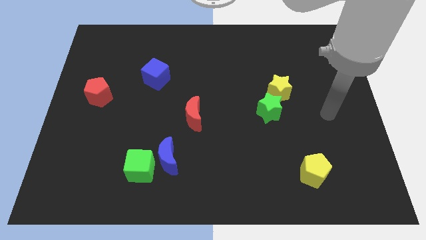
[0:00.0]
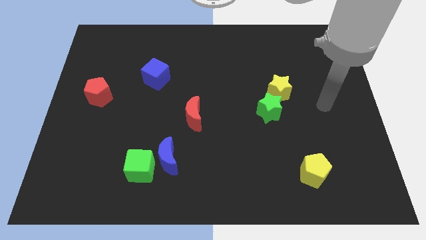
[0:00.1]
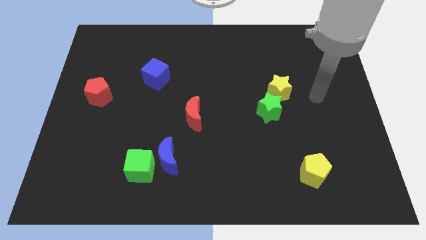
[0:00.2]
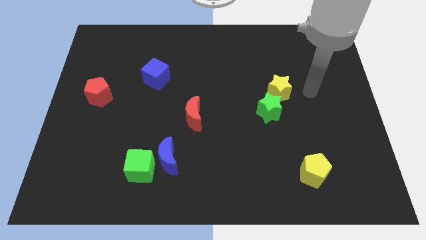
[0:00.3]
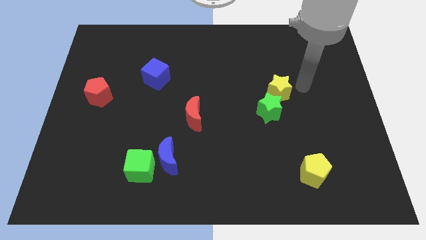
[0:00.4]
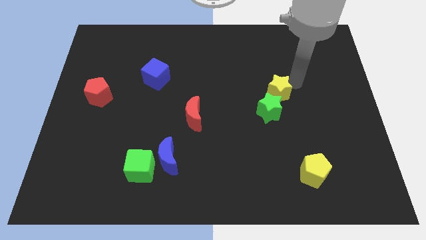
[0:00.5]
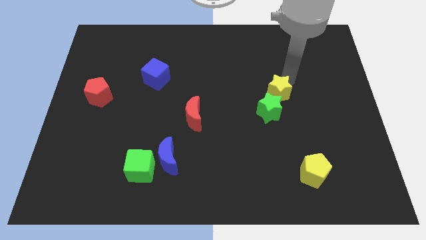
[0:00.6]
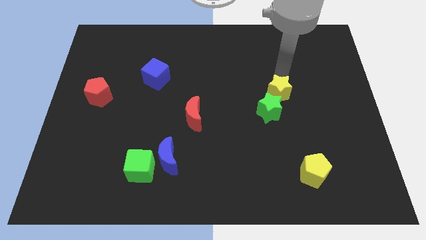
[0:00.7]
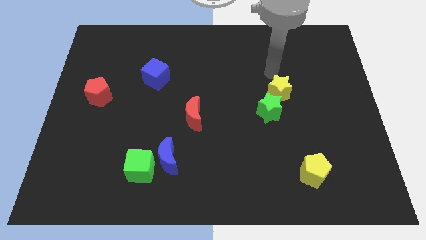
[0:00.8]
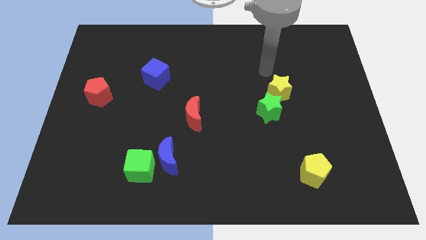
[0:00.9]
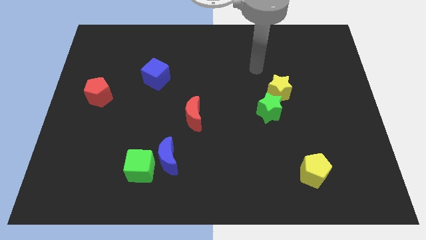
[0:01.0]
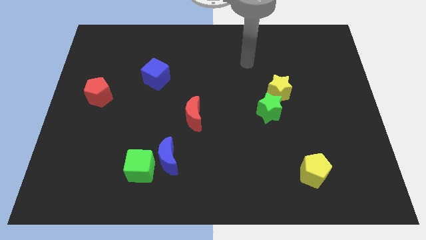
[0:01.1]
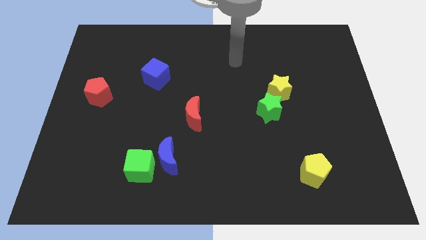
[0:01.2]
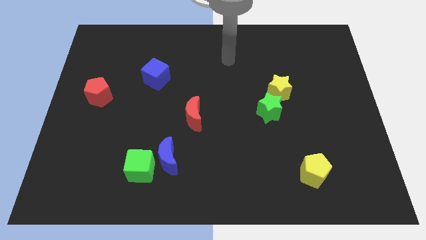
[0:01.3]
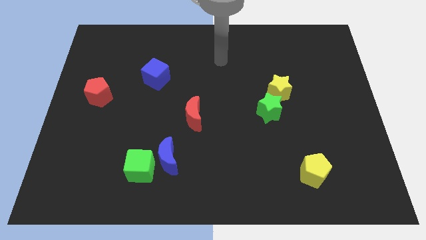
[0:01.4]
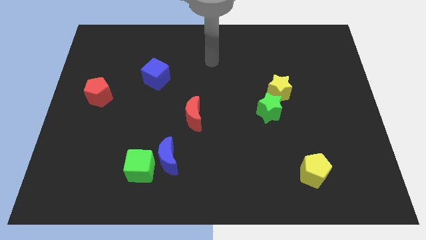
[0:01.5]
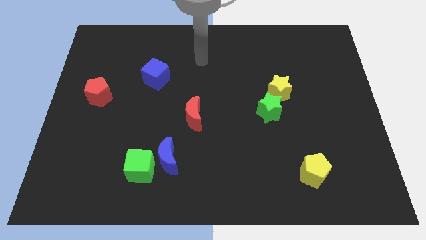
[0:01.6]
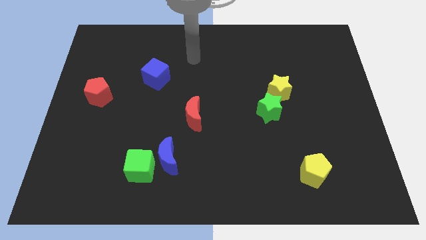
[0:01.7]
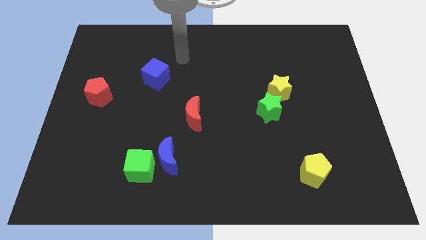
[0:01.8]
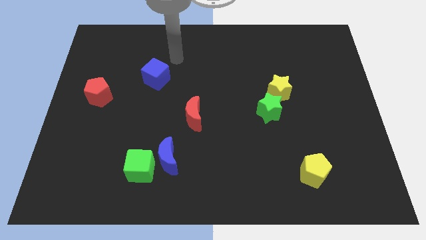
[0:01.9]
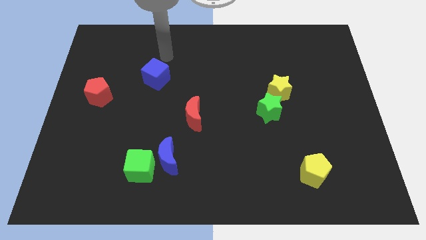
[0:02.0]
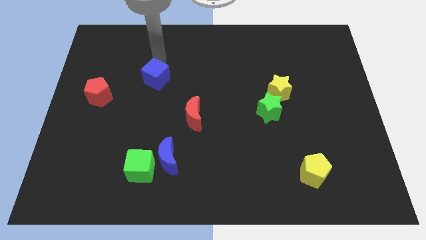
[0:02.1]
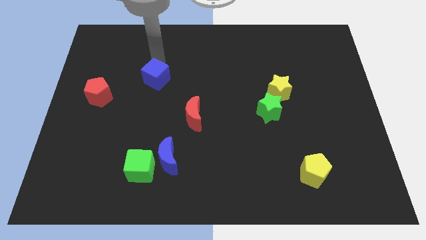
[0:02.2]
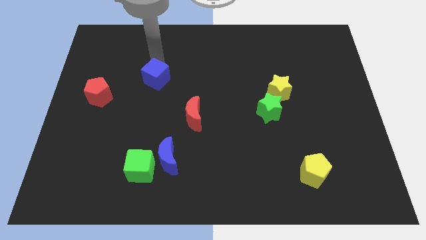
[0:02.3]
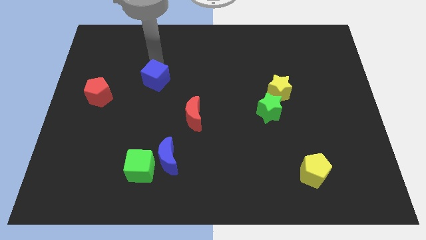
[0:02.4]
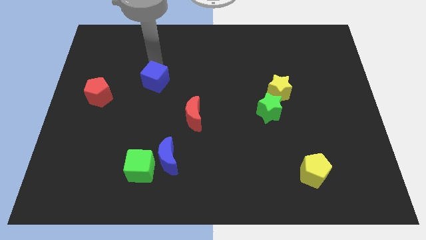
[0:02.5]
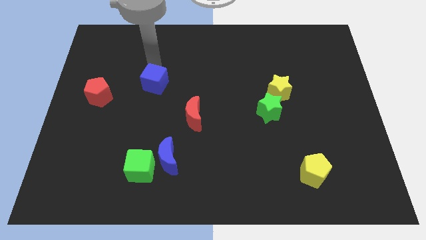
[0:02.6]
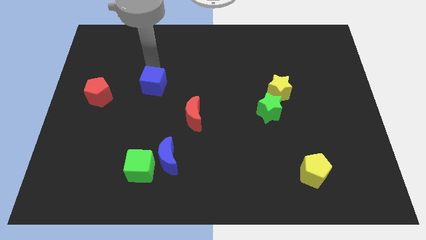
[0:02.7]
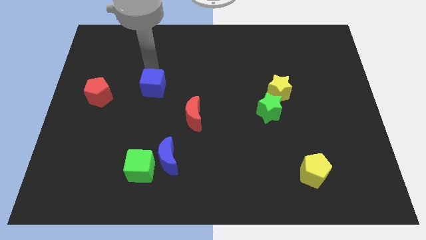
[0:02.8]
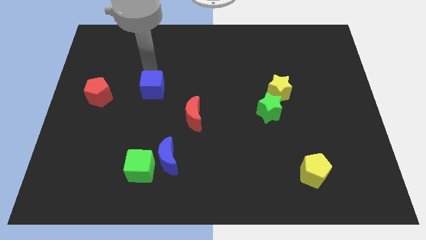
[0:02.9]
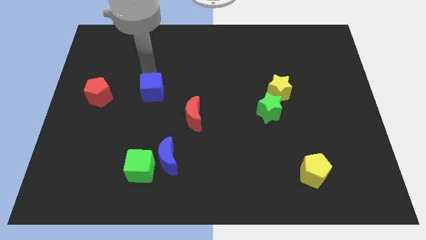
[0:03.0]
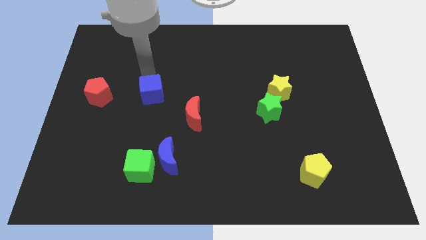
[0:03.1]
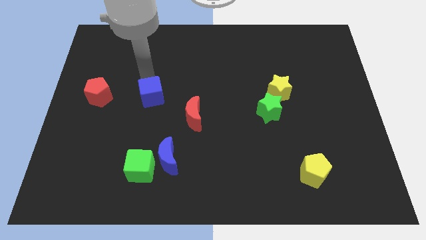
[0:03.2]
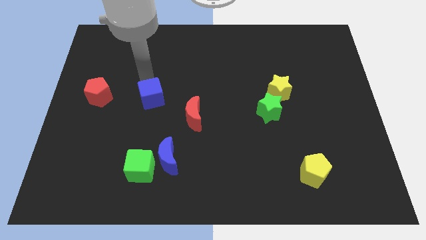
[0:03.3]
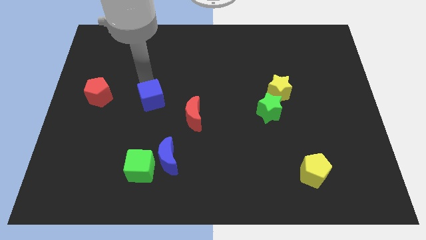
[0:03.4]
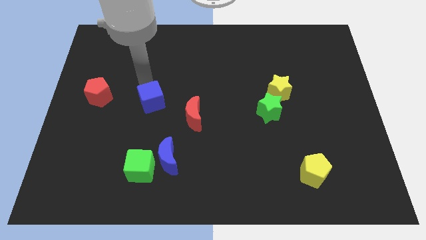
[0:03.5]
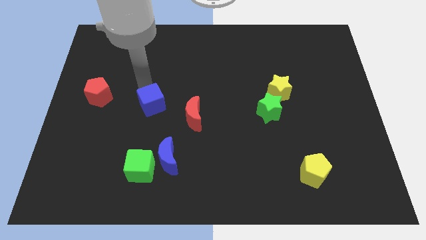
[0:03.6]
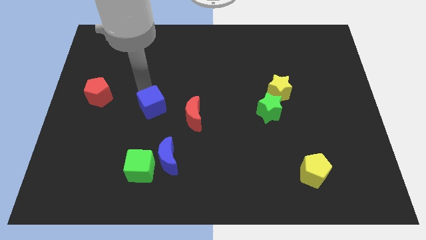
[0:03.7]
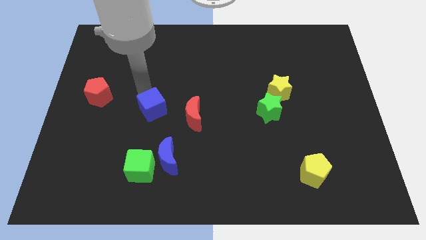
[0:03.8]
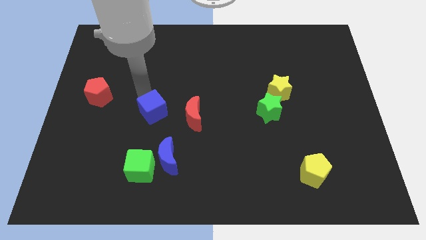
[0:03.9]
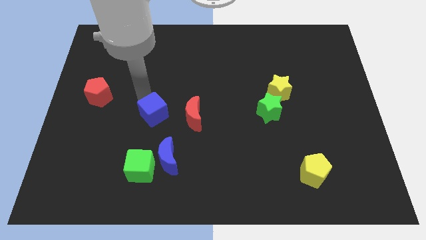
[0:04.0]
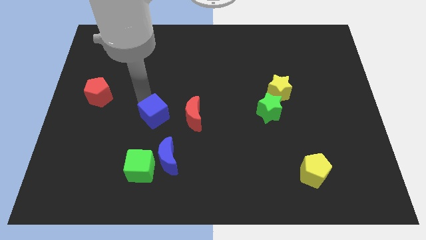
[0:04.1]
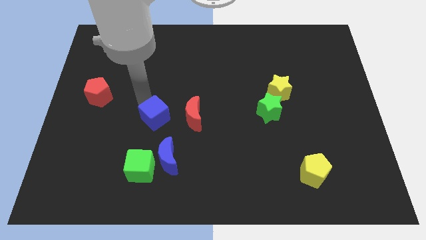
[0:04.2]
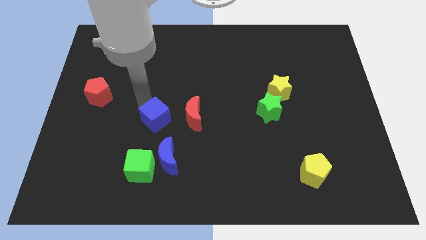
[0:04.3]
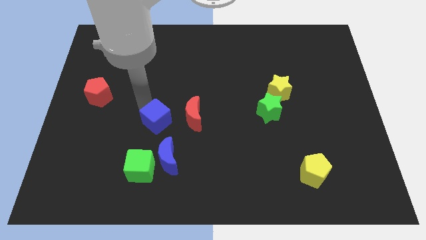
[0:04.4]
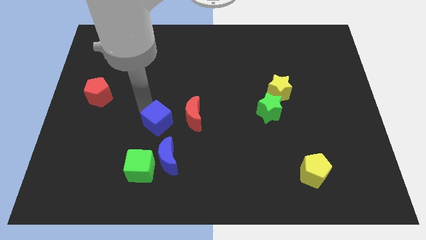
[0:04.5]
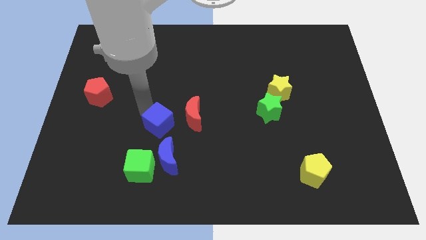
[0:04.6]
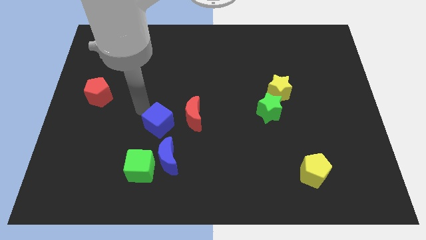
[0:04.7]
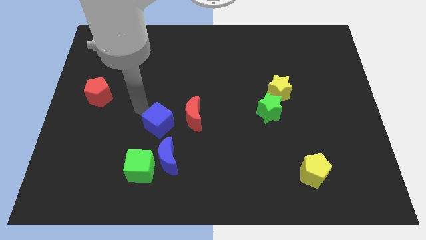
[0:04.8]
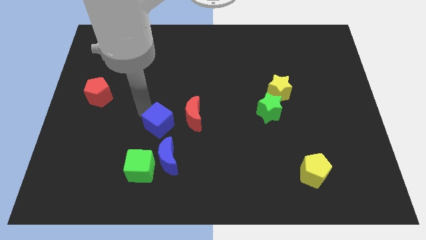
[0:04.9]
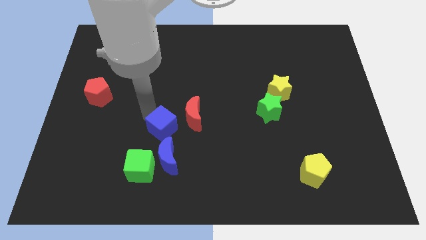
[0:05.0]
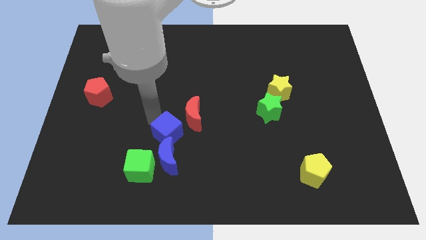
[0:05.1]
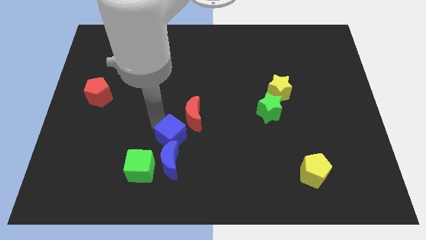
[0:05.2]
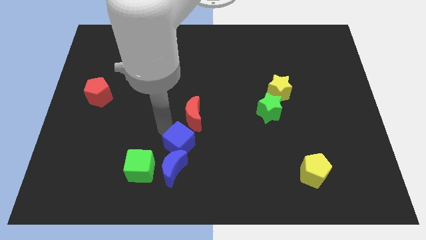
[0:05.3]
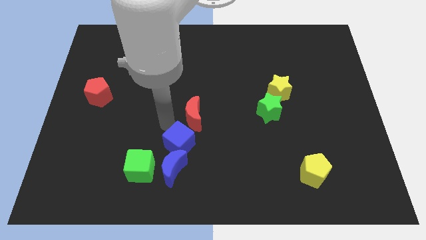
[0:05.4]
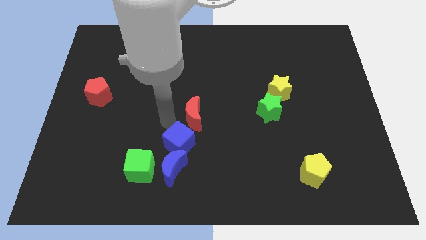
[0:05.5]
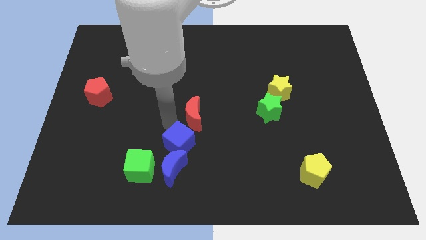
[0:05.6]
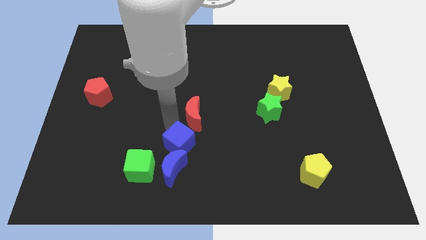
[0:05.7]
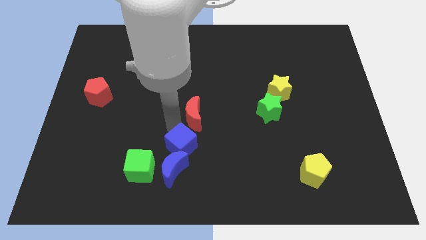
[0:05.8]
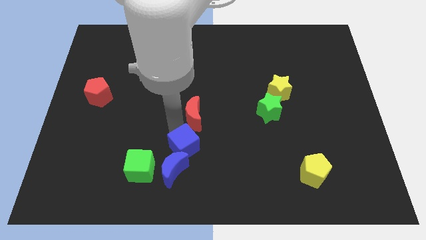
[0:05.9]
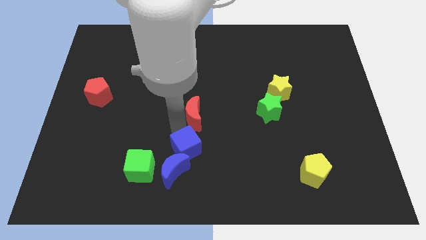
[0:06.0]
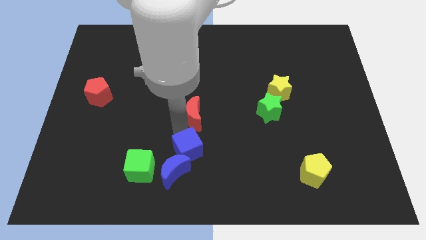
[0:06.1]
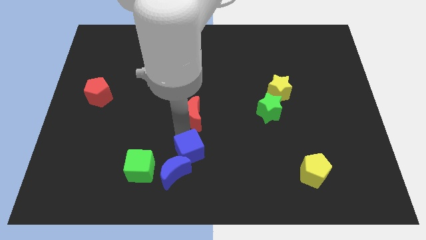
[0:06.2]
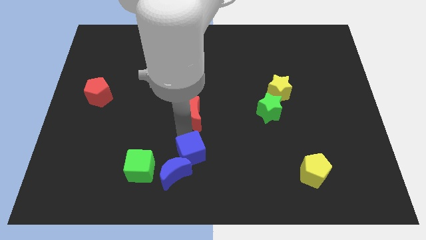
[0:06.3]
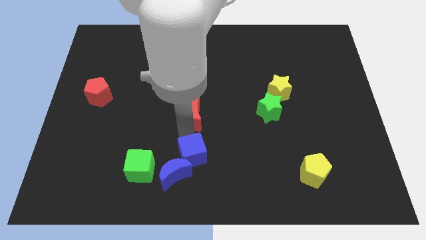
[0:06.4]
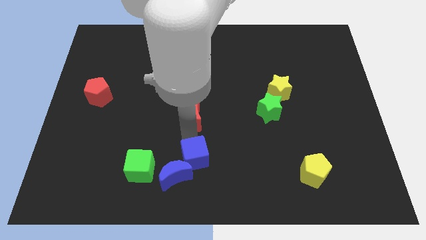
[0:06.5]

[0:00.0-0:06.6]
slide the blue cube to the bottom side
